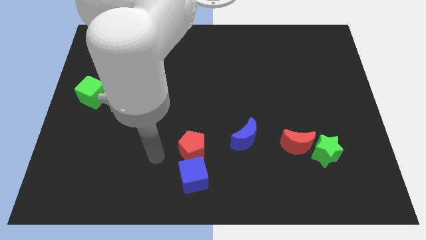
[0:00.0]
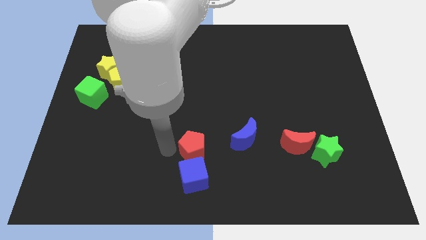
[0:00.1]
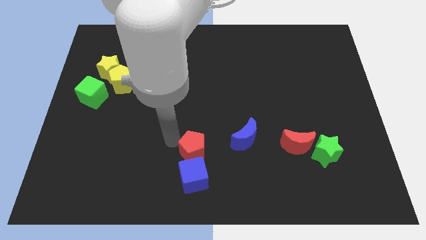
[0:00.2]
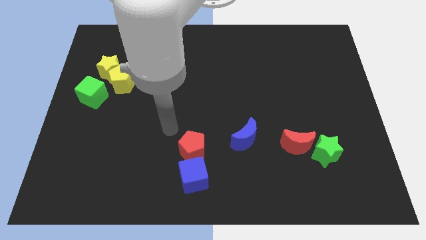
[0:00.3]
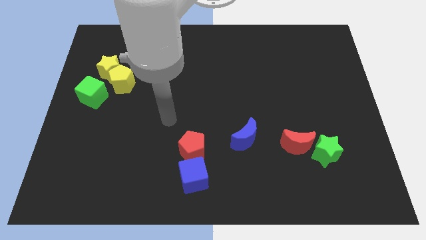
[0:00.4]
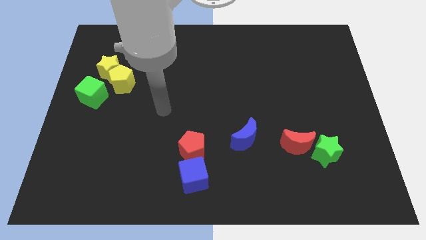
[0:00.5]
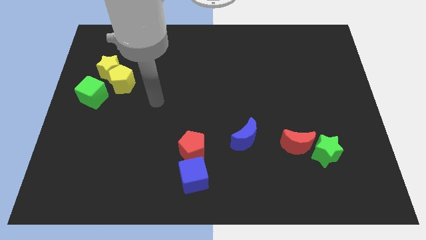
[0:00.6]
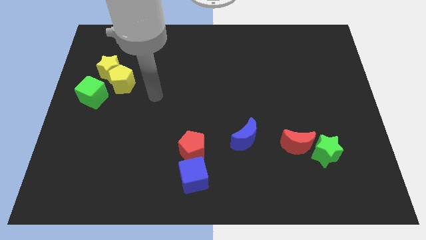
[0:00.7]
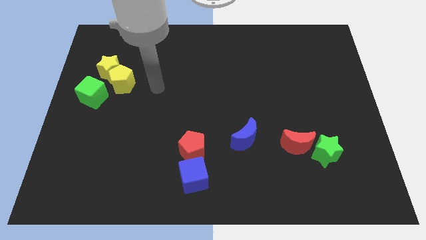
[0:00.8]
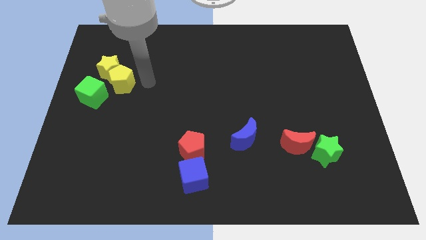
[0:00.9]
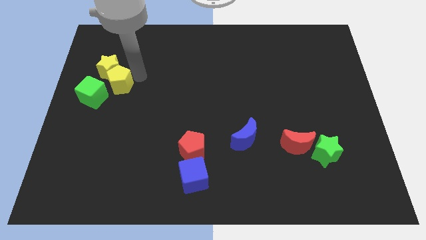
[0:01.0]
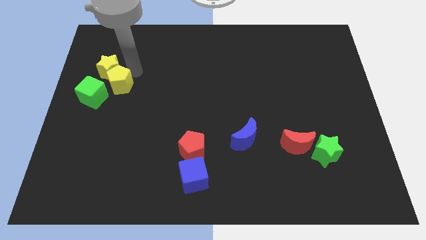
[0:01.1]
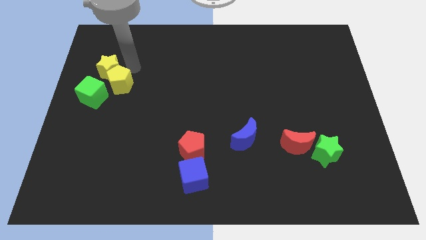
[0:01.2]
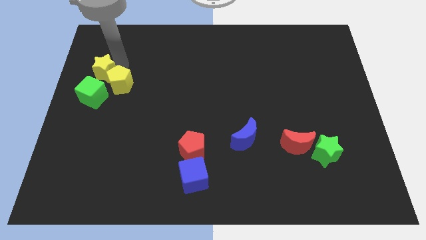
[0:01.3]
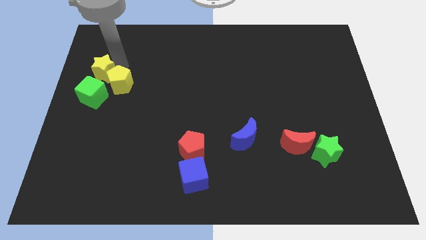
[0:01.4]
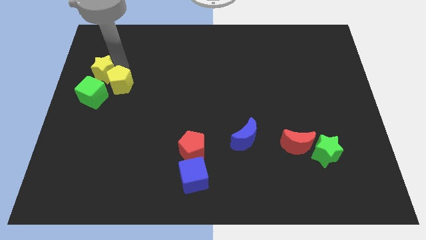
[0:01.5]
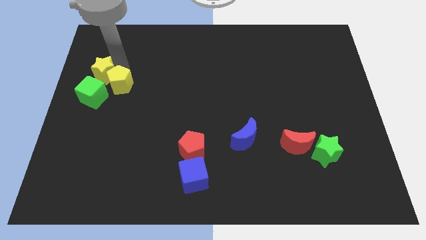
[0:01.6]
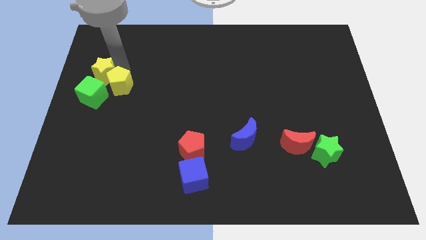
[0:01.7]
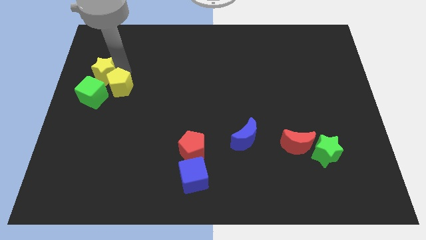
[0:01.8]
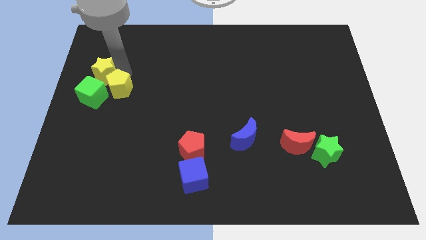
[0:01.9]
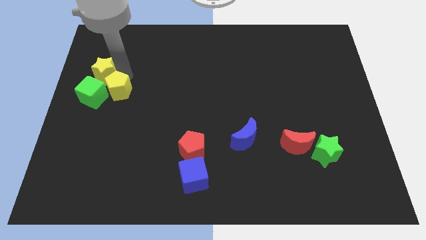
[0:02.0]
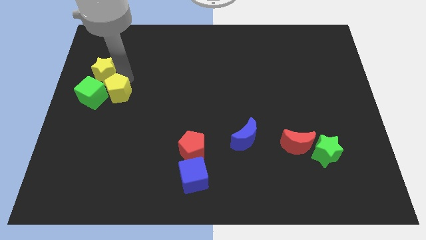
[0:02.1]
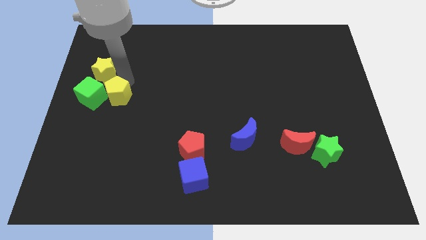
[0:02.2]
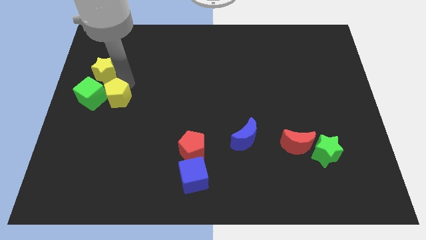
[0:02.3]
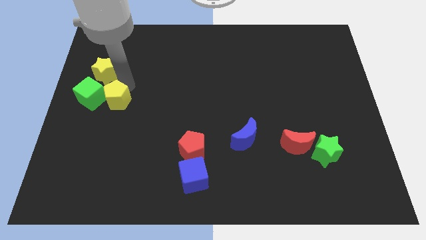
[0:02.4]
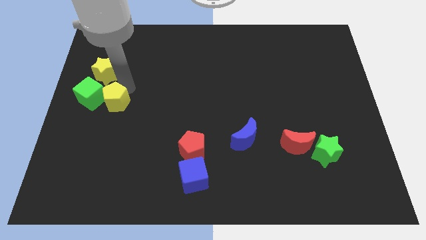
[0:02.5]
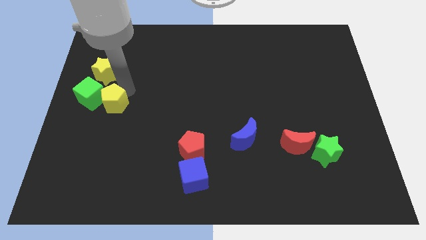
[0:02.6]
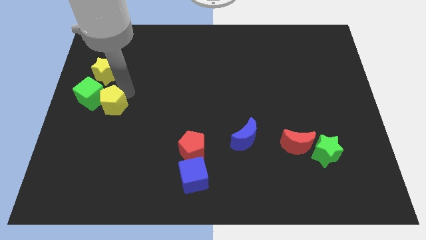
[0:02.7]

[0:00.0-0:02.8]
slide the yellow pentagon downwards a bit

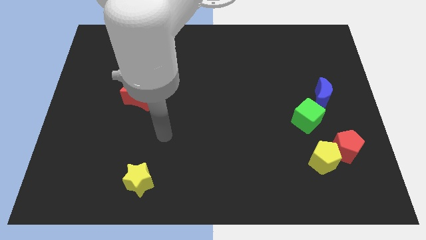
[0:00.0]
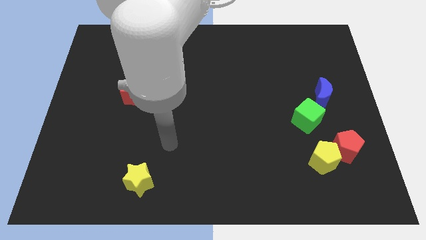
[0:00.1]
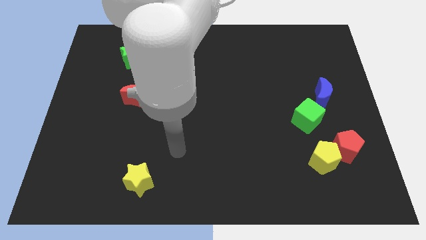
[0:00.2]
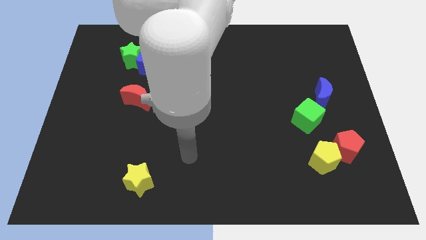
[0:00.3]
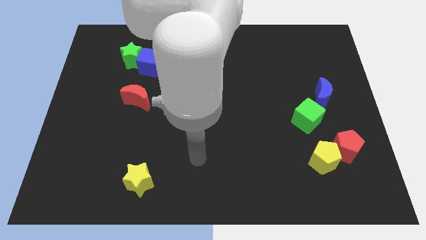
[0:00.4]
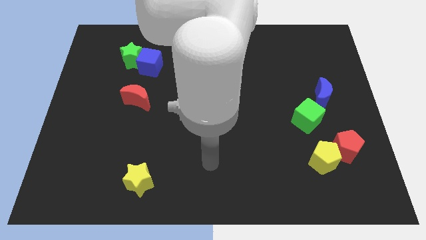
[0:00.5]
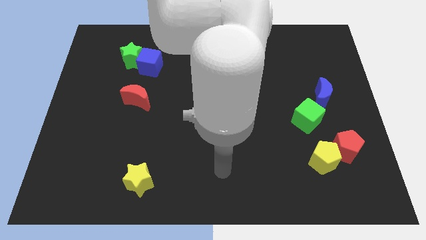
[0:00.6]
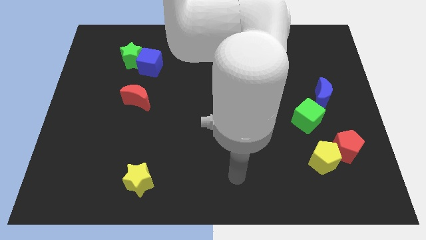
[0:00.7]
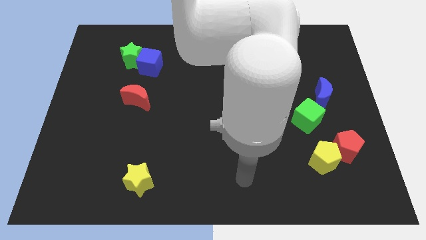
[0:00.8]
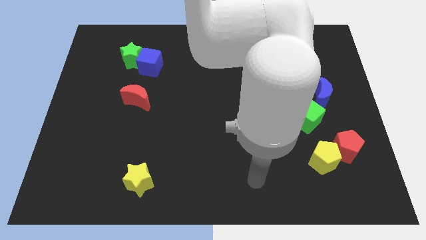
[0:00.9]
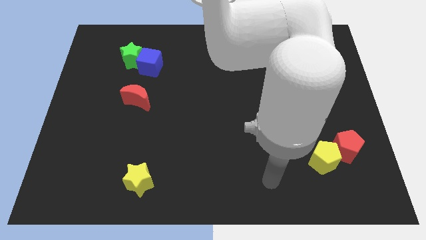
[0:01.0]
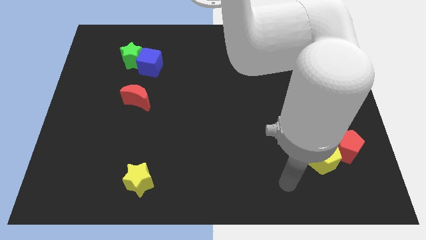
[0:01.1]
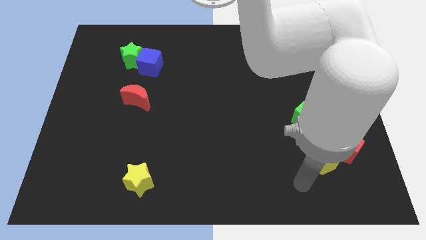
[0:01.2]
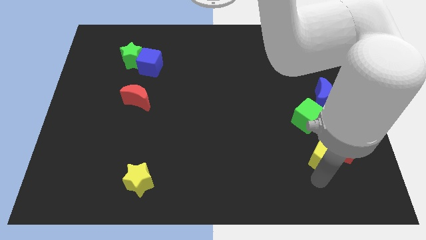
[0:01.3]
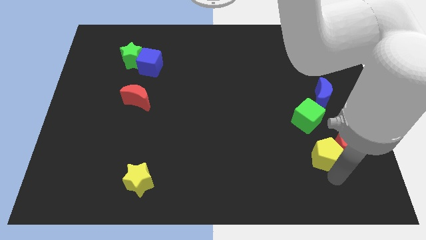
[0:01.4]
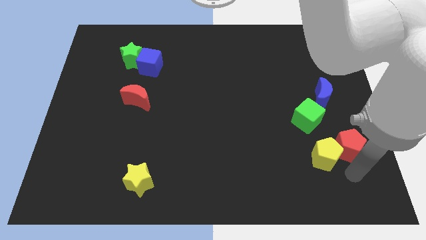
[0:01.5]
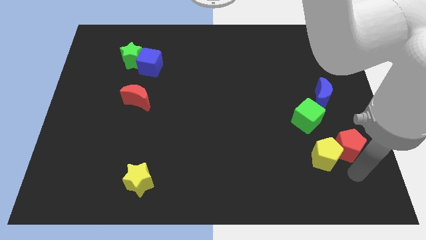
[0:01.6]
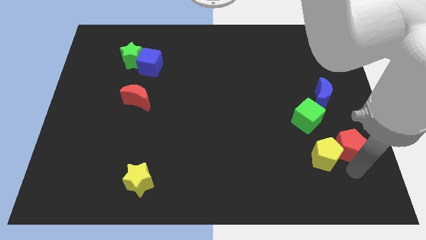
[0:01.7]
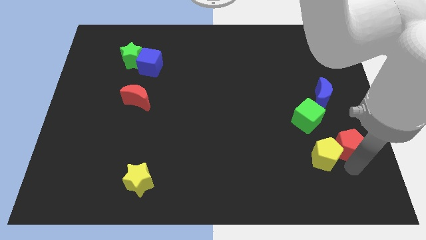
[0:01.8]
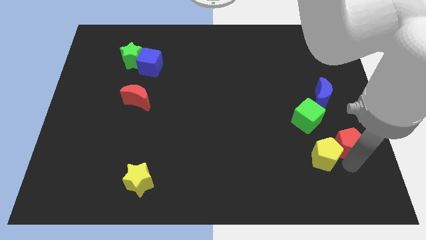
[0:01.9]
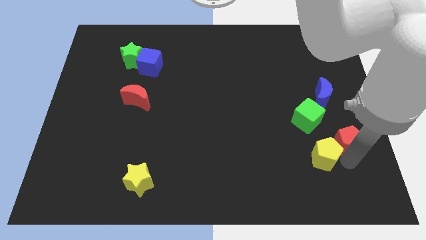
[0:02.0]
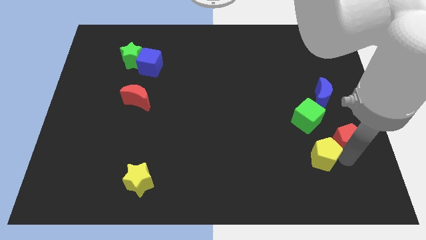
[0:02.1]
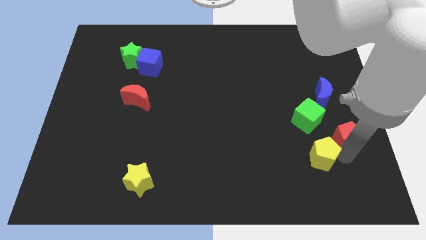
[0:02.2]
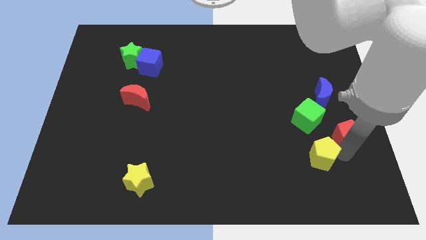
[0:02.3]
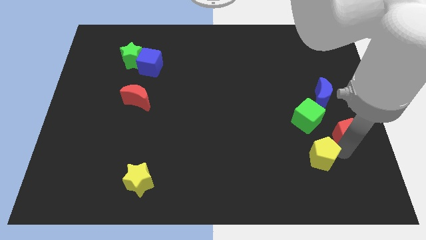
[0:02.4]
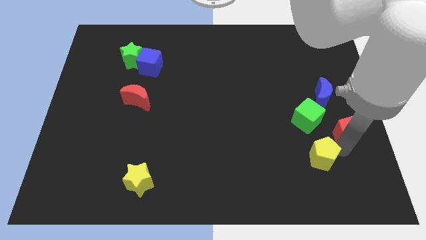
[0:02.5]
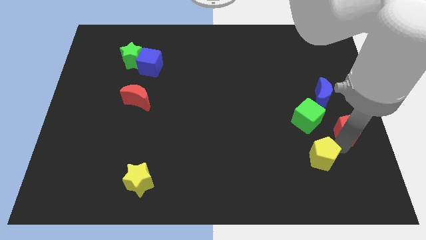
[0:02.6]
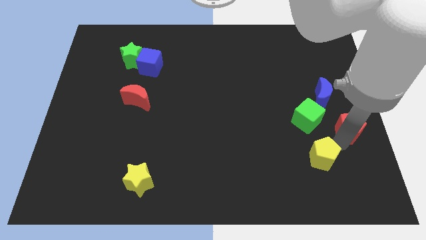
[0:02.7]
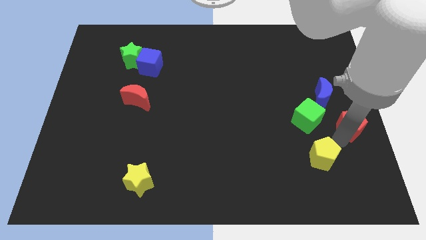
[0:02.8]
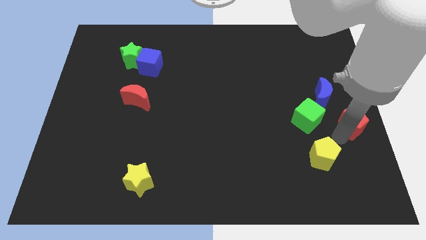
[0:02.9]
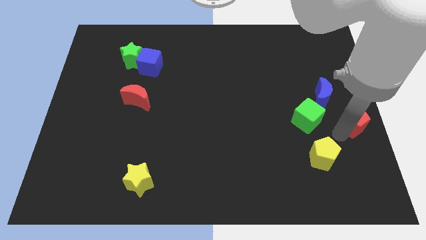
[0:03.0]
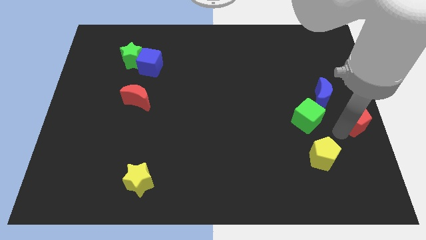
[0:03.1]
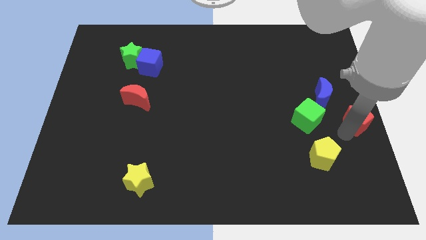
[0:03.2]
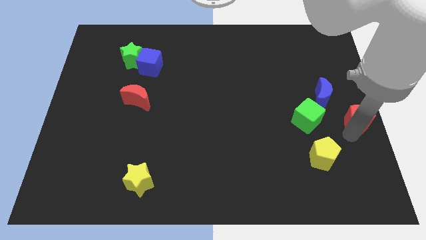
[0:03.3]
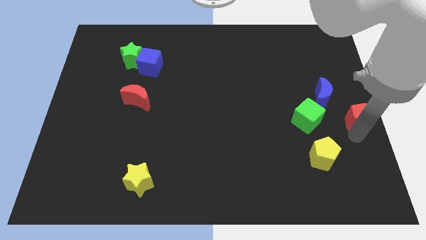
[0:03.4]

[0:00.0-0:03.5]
slide the red pentagon a little bit up

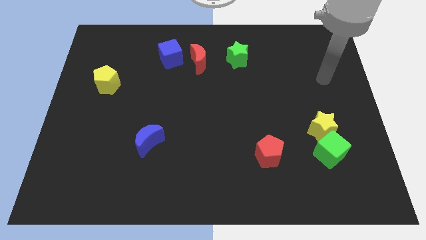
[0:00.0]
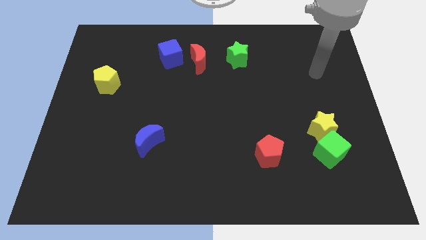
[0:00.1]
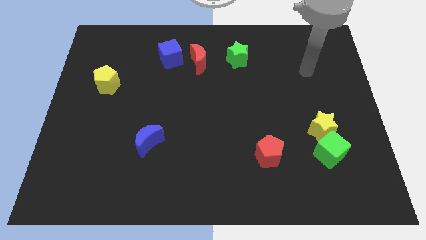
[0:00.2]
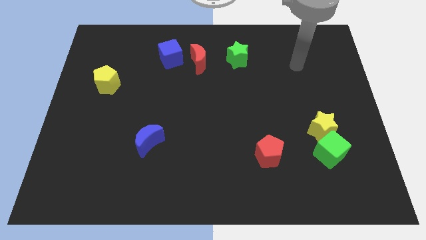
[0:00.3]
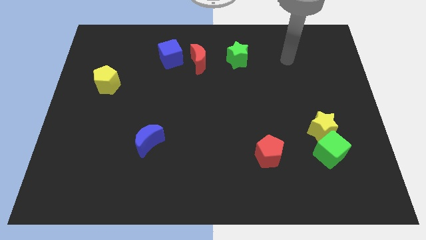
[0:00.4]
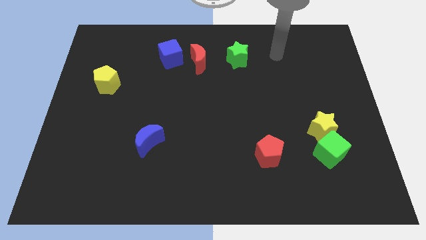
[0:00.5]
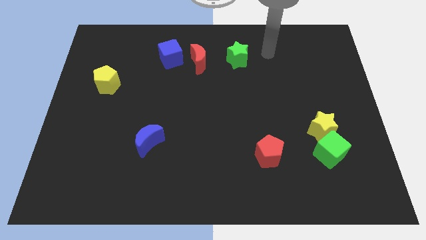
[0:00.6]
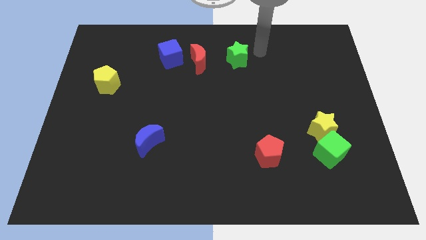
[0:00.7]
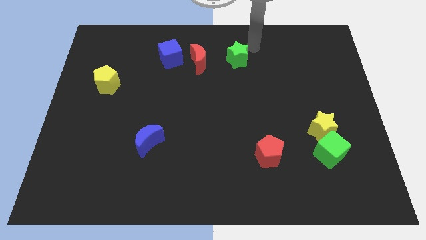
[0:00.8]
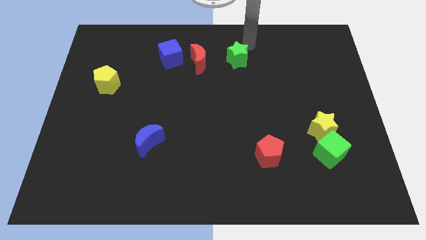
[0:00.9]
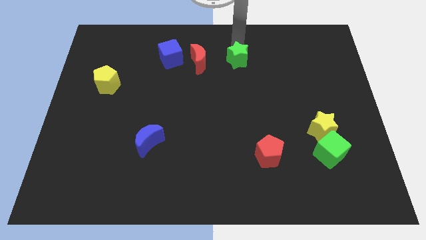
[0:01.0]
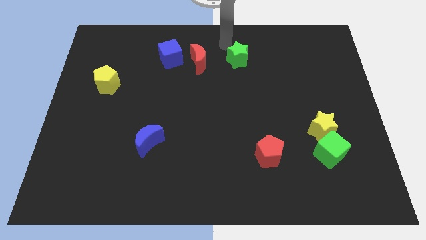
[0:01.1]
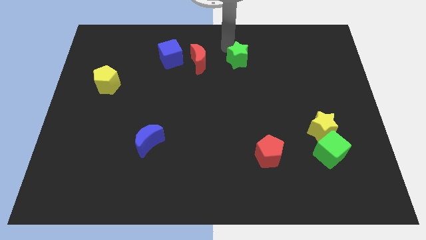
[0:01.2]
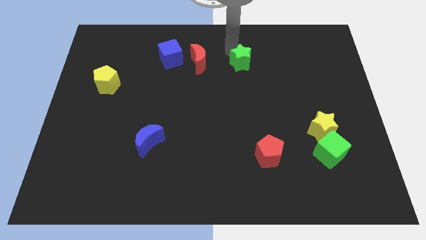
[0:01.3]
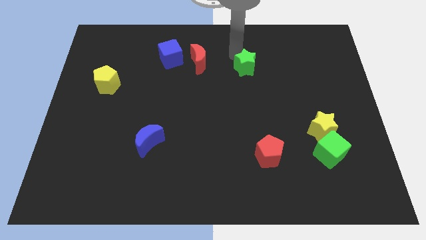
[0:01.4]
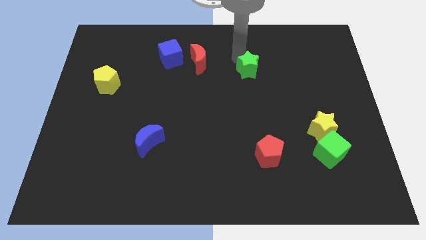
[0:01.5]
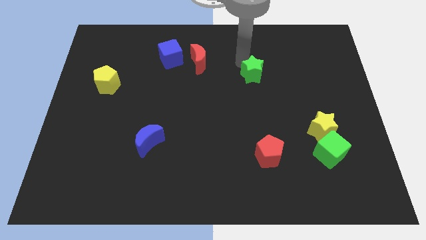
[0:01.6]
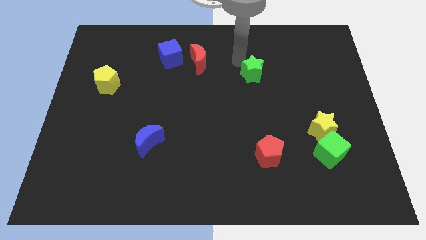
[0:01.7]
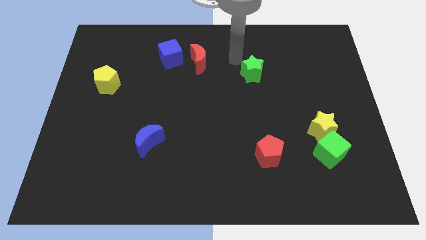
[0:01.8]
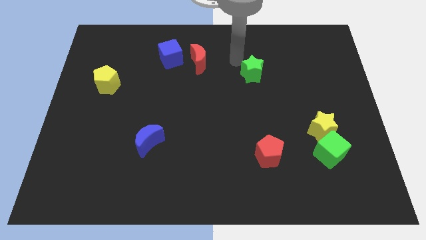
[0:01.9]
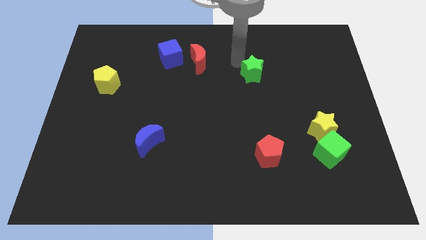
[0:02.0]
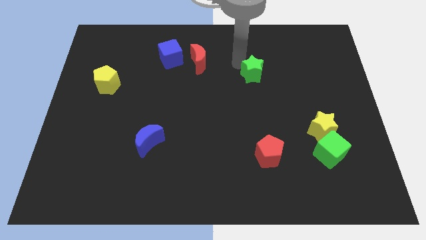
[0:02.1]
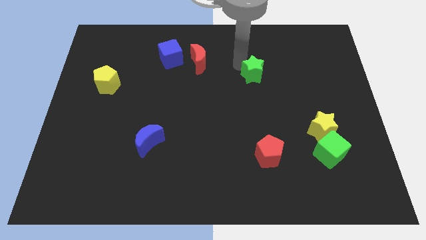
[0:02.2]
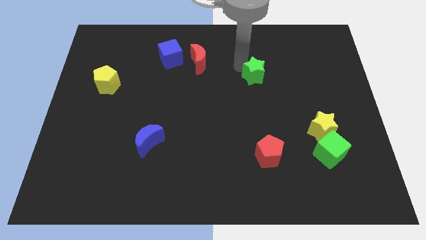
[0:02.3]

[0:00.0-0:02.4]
slightly slide the green star diagonally downwards and right
